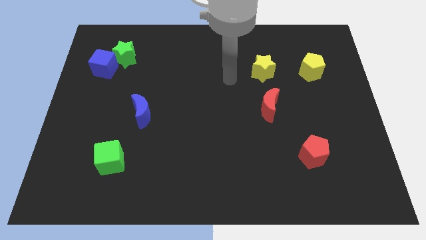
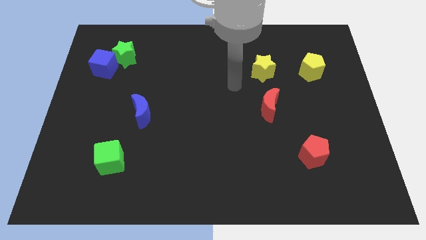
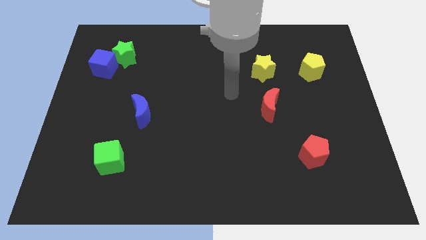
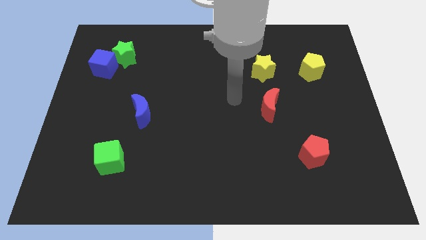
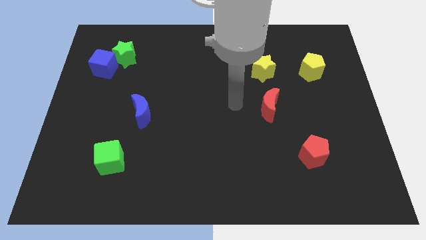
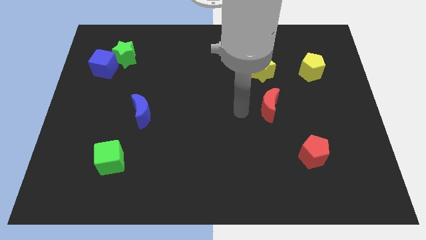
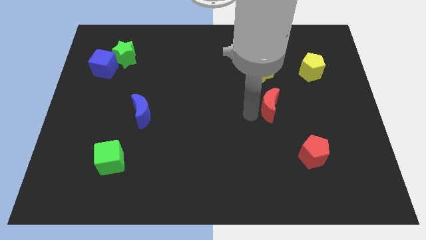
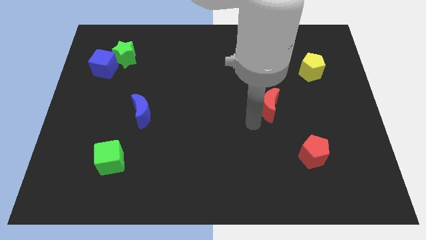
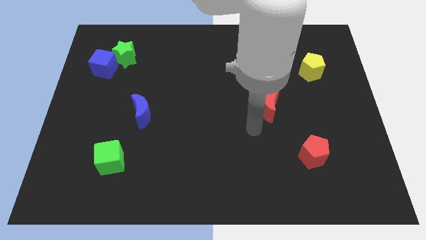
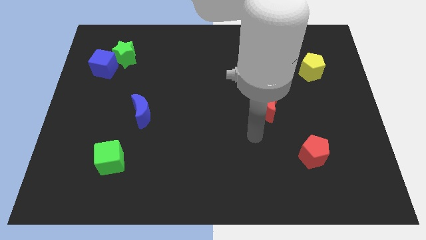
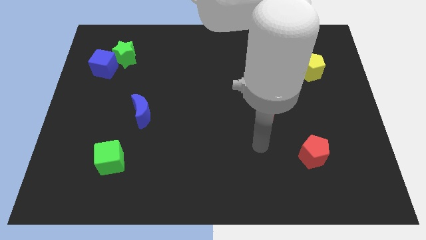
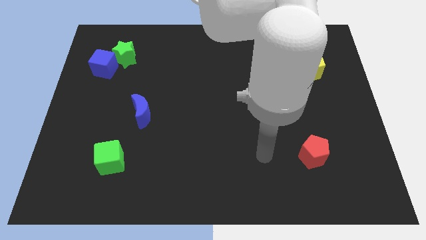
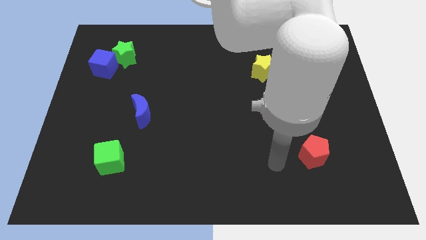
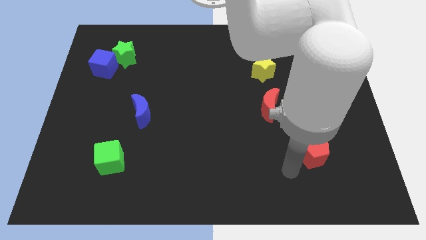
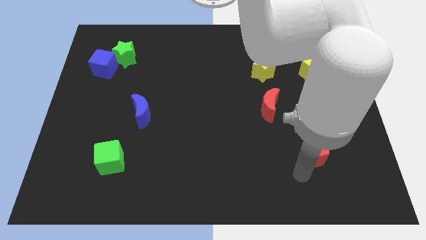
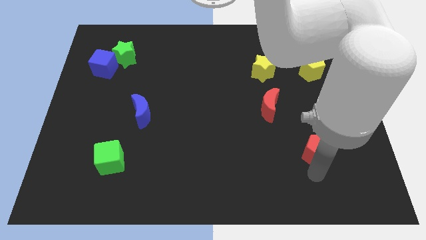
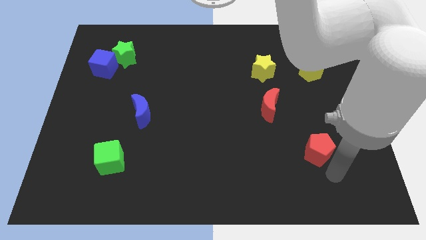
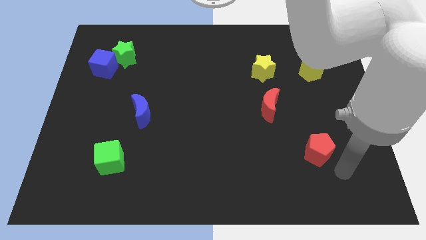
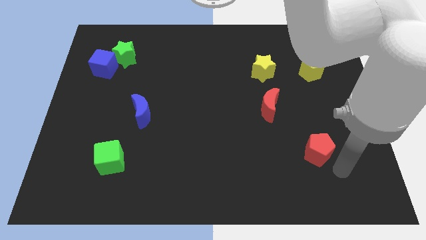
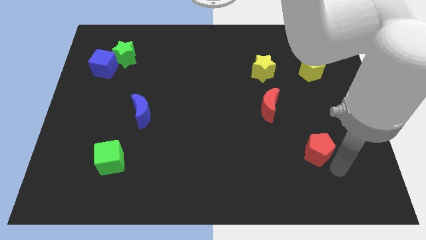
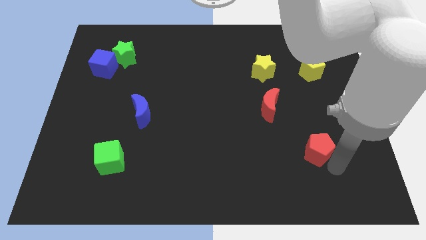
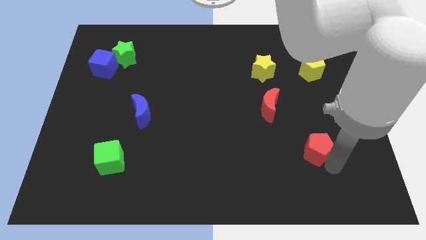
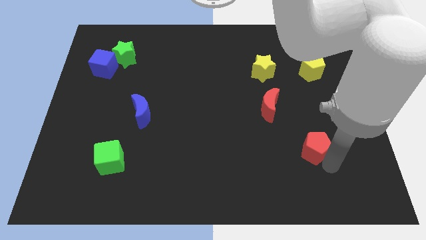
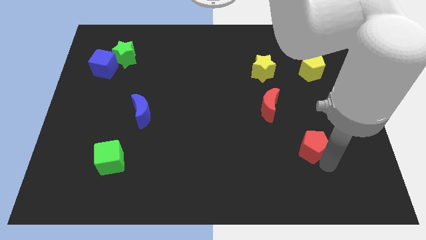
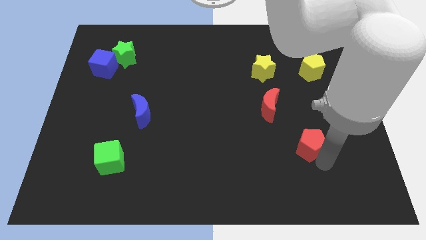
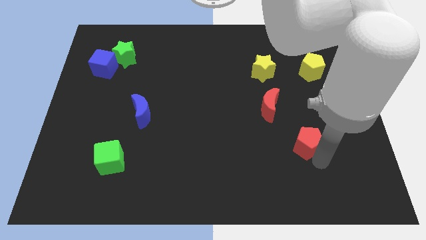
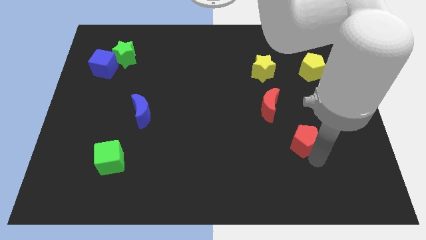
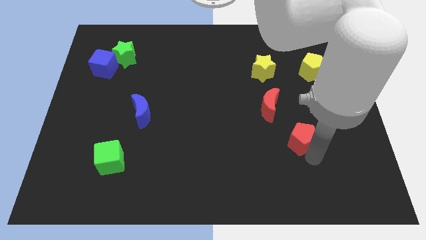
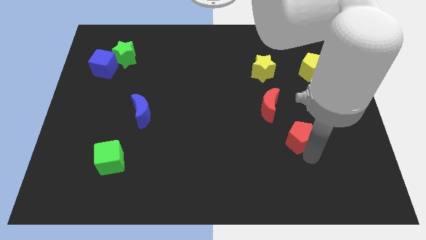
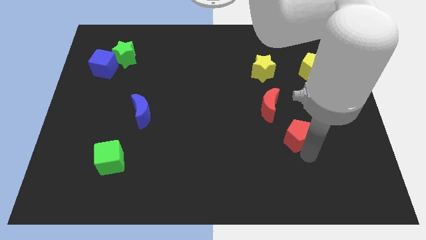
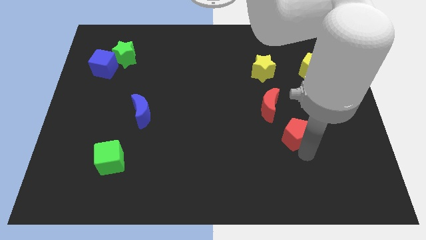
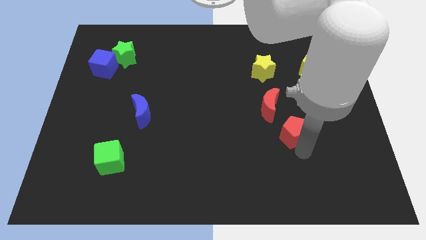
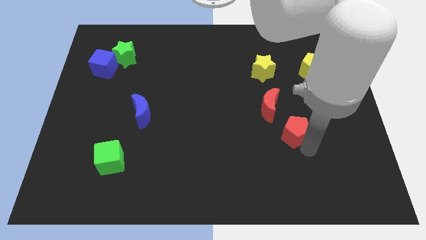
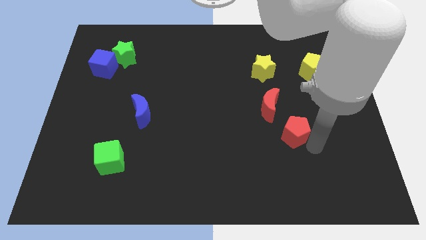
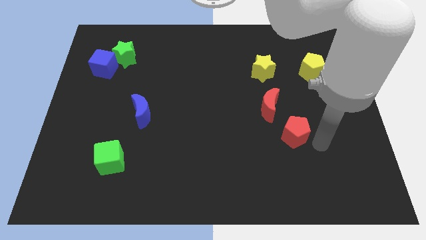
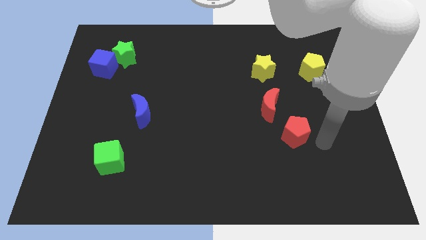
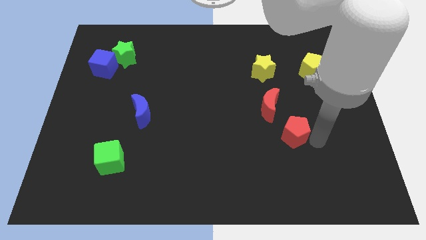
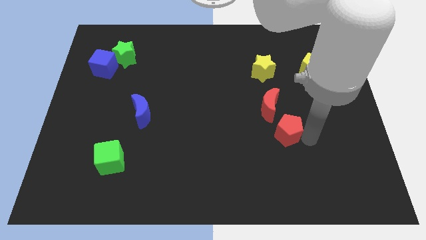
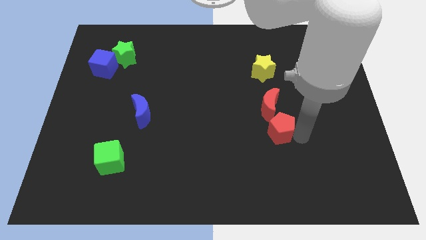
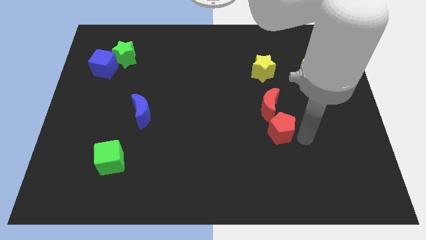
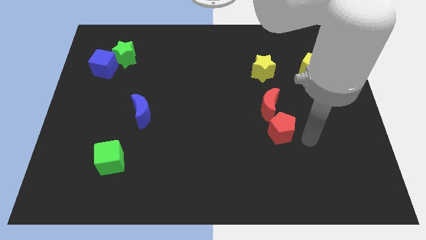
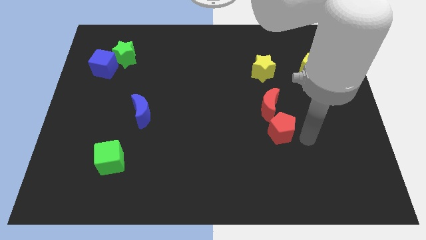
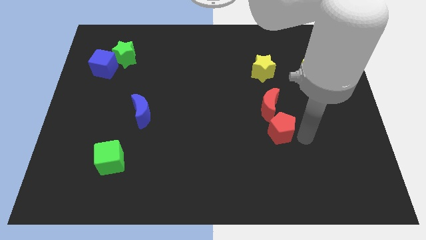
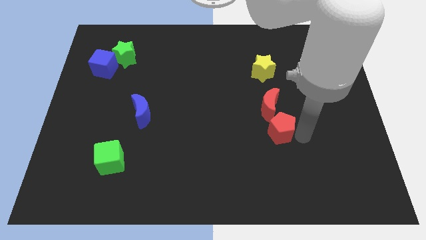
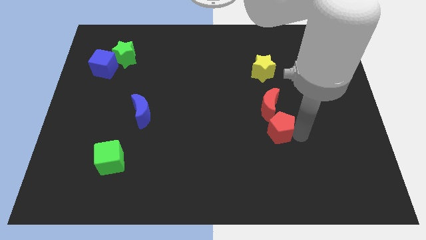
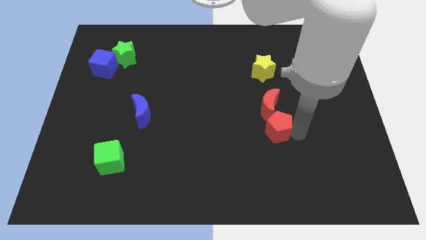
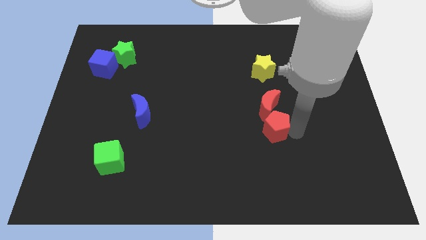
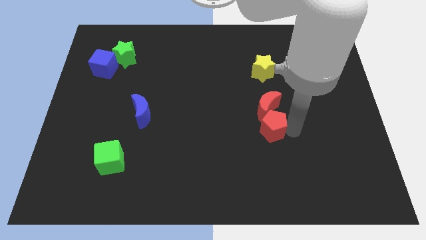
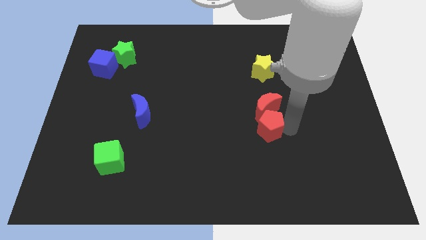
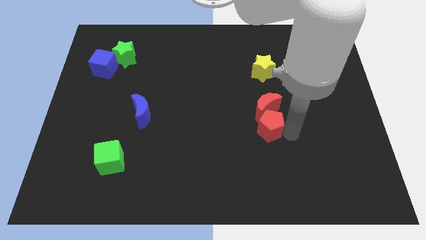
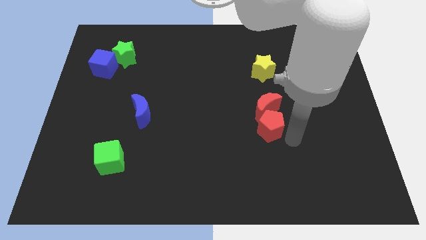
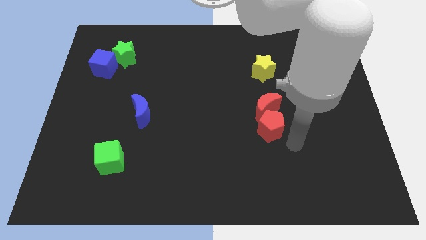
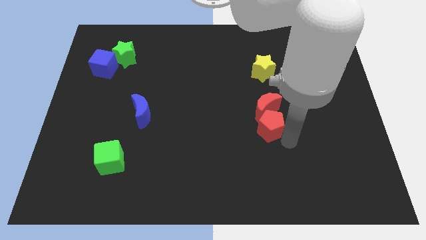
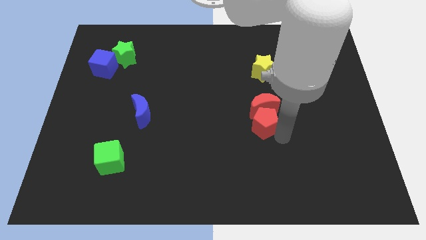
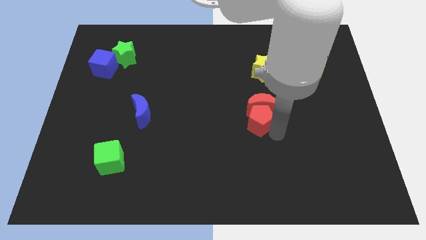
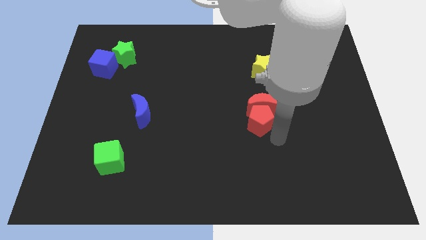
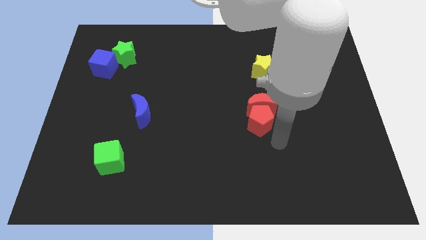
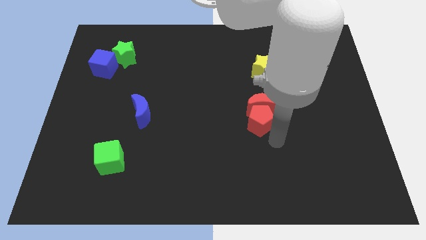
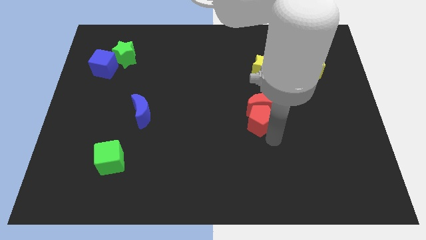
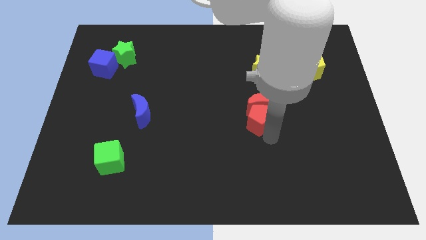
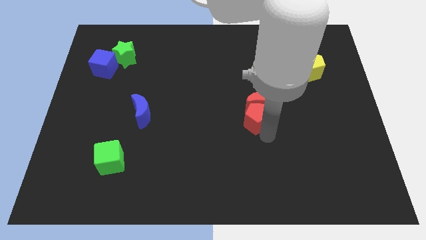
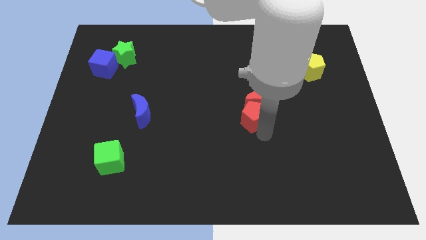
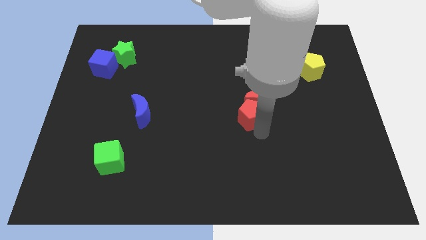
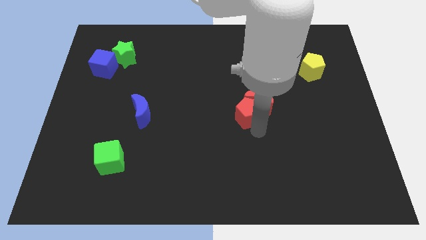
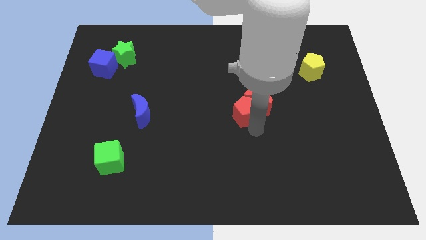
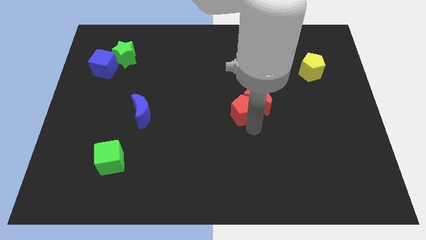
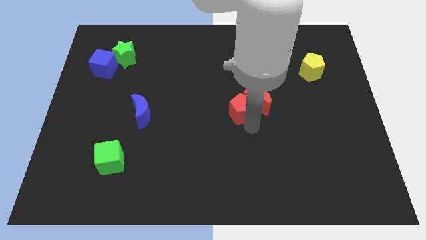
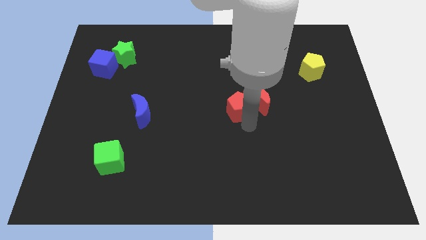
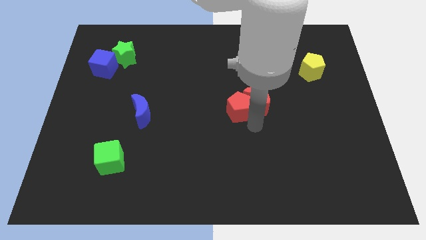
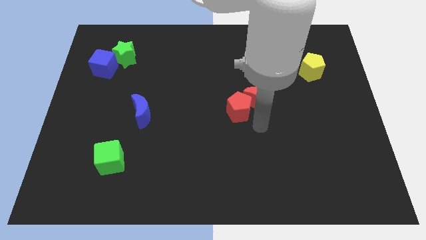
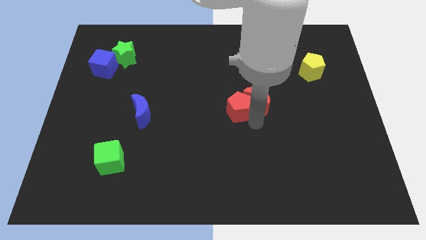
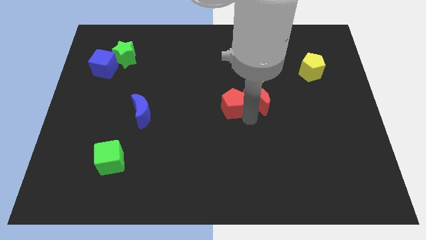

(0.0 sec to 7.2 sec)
slide the red pentagon upwards and left

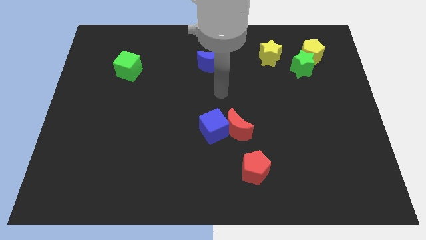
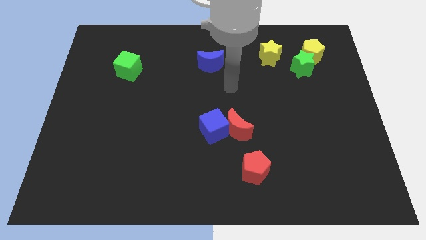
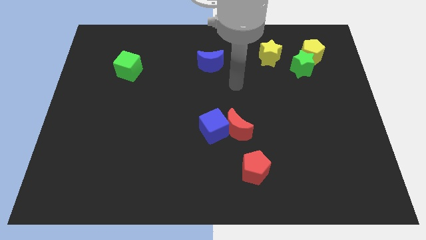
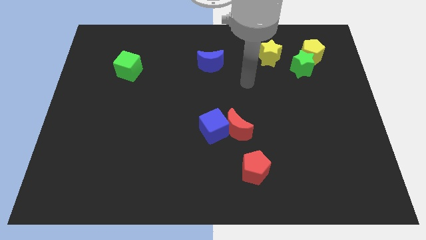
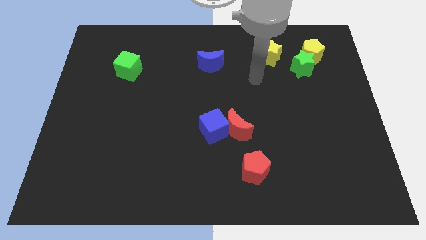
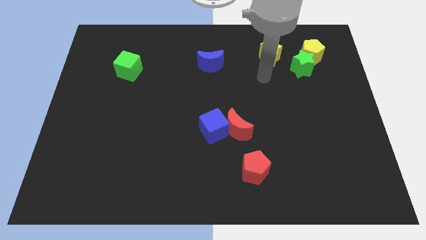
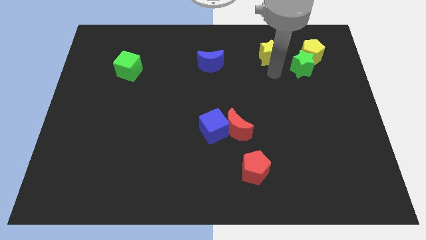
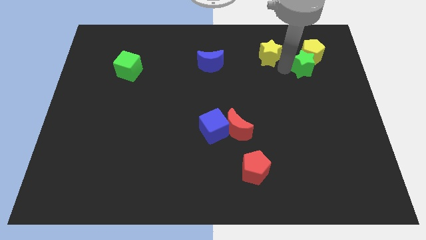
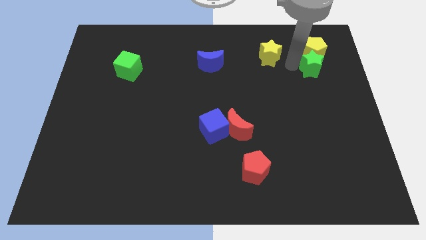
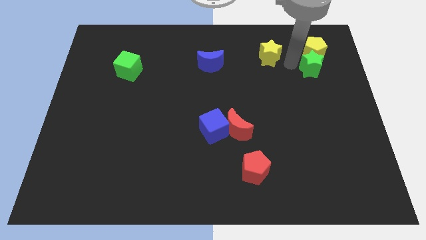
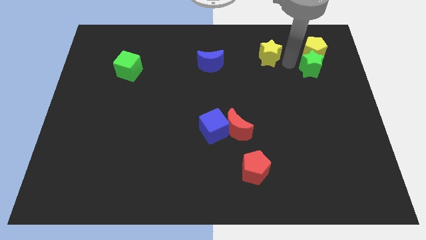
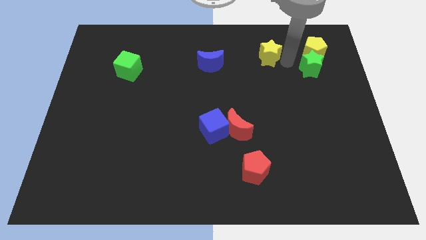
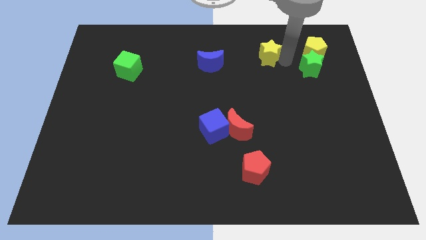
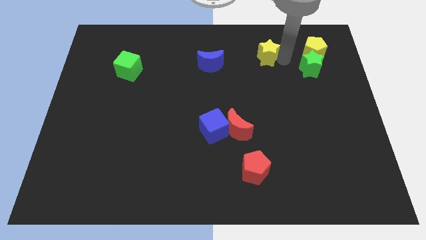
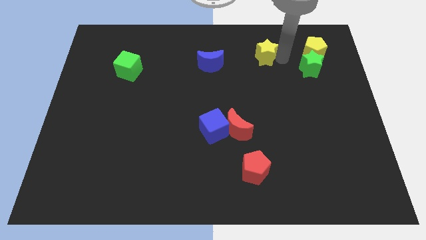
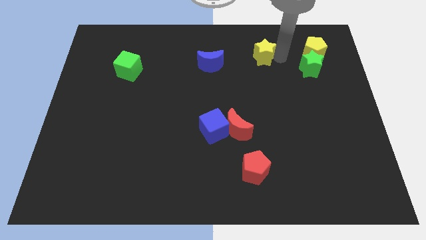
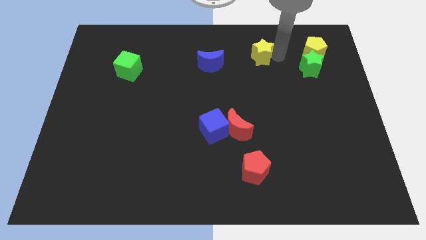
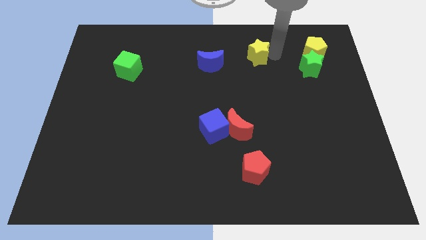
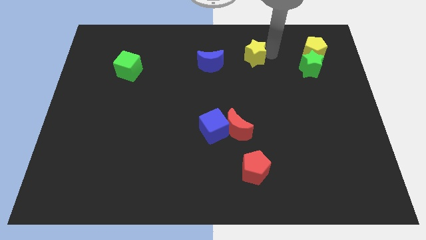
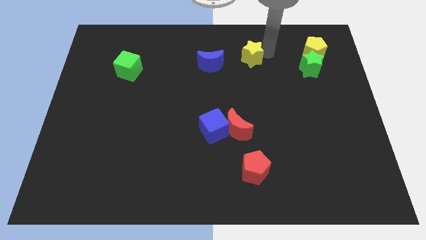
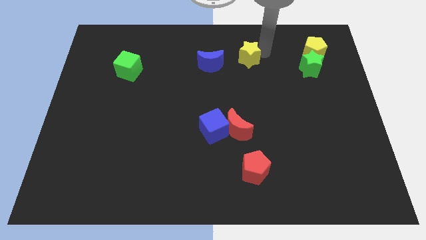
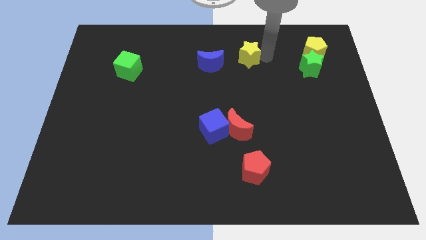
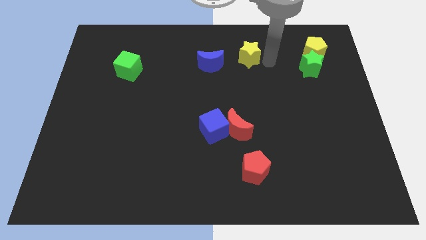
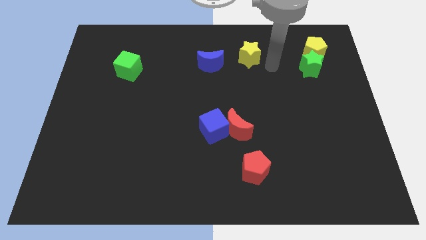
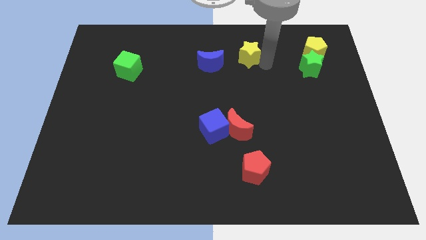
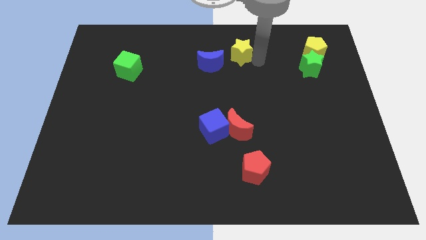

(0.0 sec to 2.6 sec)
slide the yellow star a bit to the left
